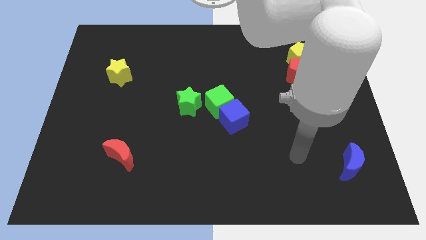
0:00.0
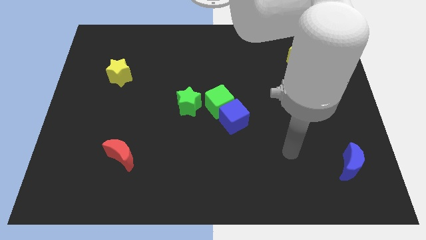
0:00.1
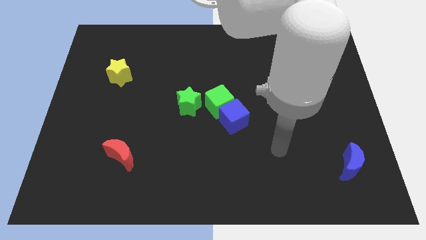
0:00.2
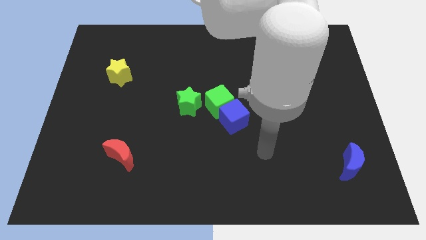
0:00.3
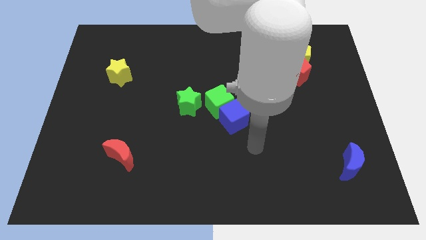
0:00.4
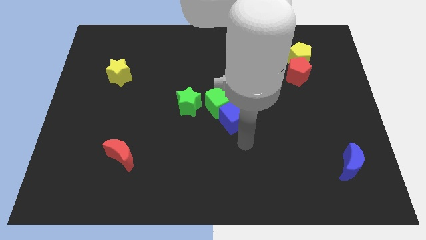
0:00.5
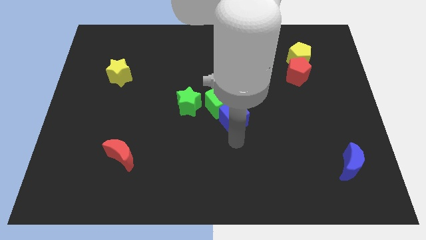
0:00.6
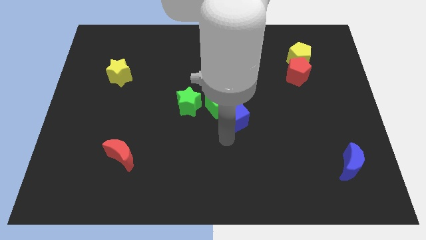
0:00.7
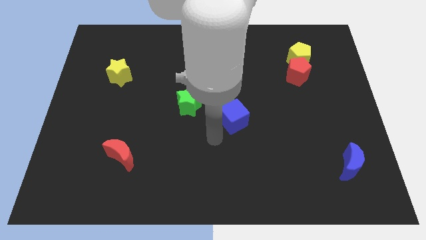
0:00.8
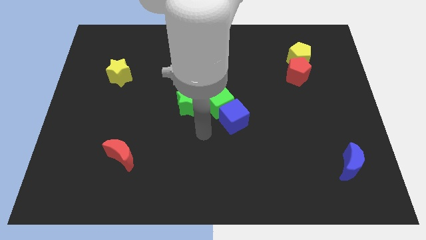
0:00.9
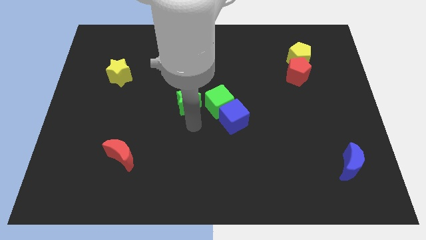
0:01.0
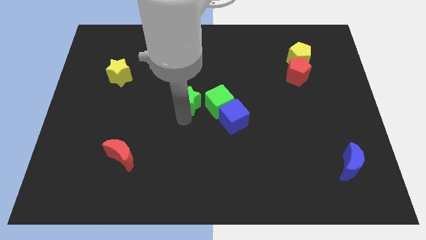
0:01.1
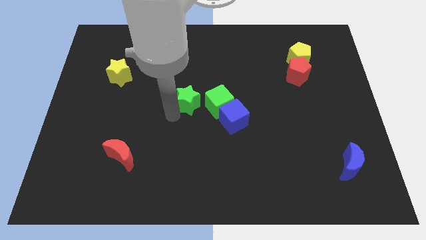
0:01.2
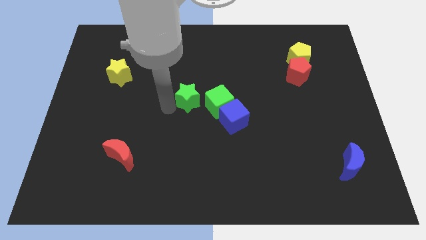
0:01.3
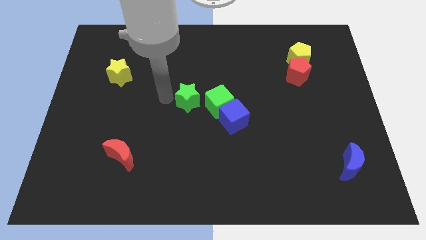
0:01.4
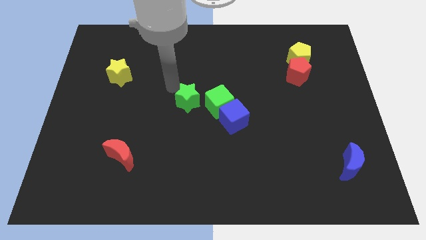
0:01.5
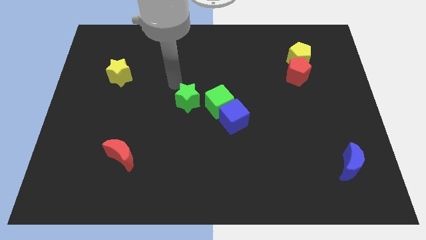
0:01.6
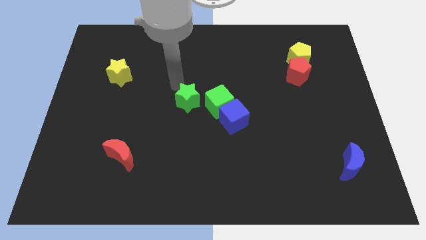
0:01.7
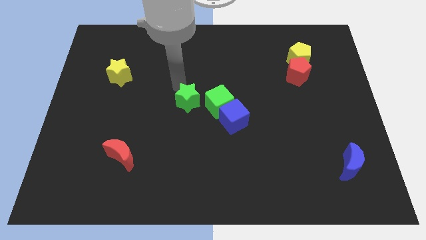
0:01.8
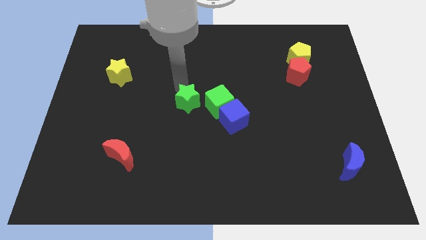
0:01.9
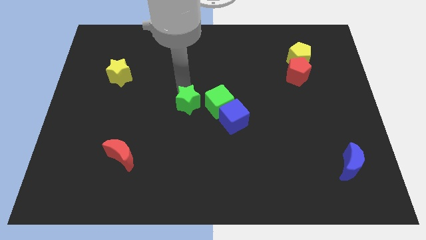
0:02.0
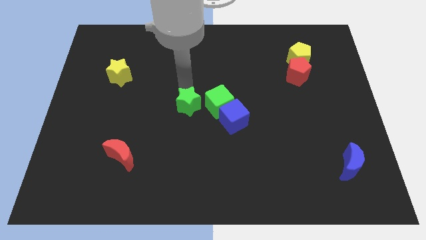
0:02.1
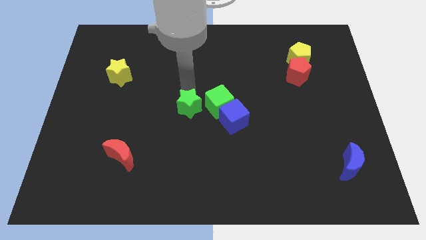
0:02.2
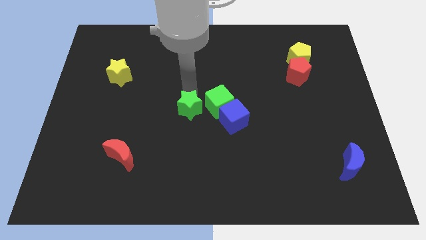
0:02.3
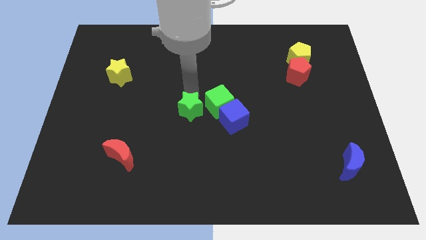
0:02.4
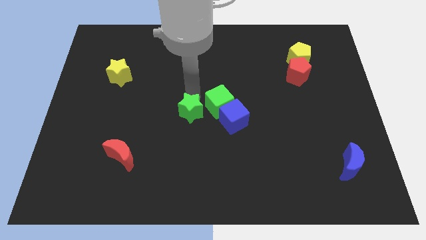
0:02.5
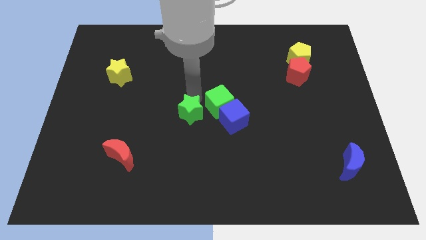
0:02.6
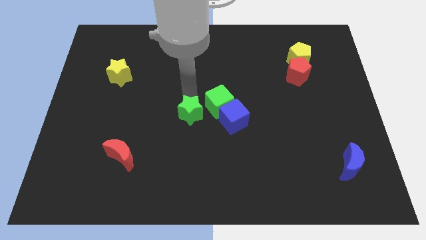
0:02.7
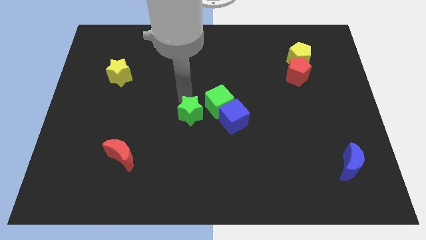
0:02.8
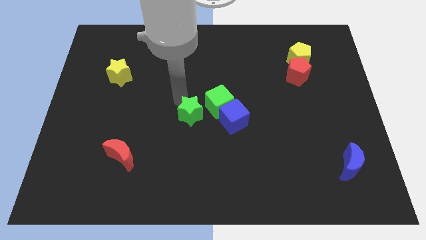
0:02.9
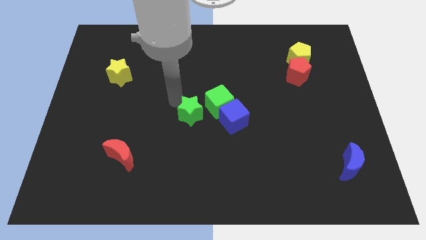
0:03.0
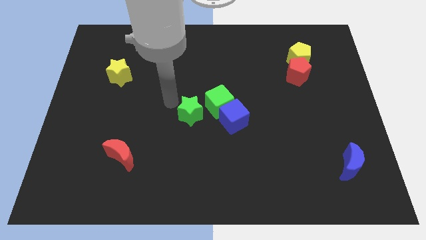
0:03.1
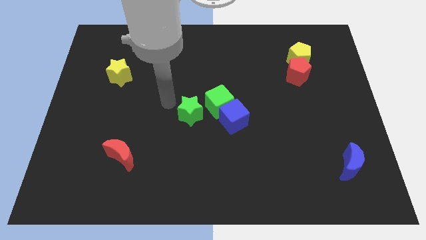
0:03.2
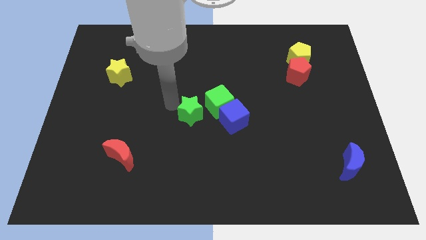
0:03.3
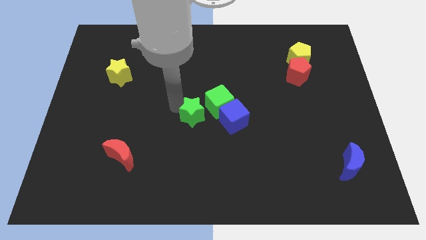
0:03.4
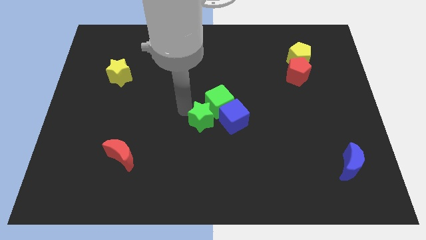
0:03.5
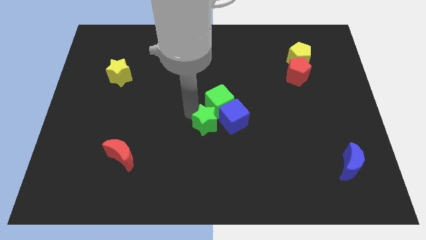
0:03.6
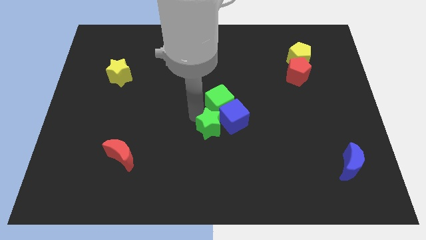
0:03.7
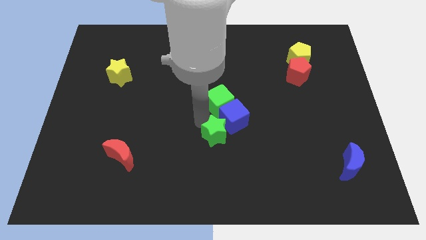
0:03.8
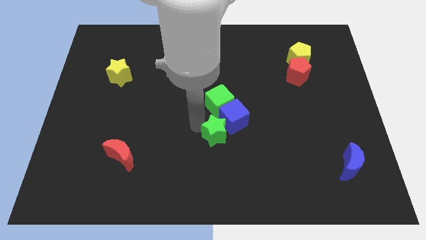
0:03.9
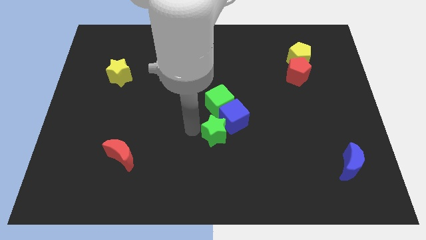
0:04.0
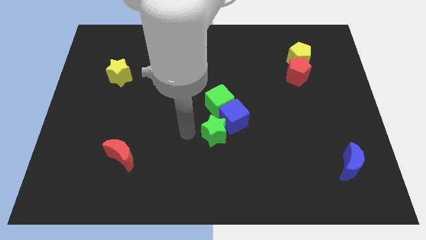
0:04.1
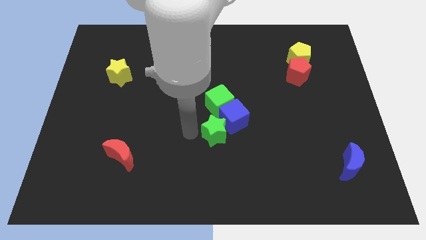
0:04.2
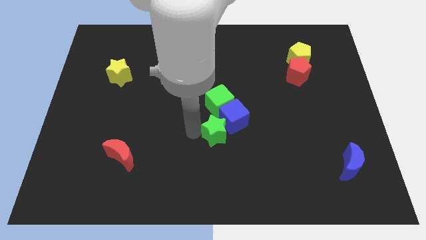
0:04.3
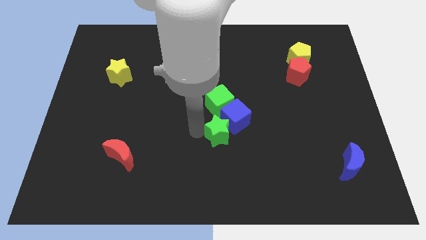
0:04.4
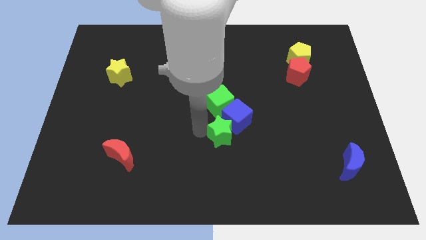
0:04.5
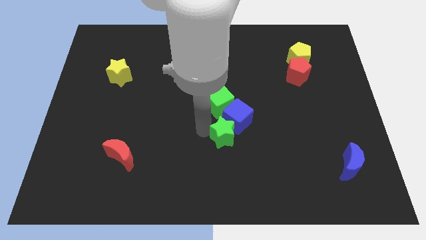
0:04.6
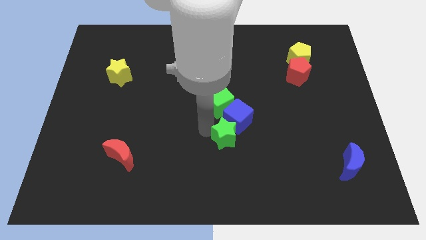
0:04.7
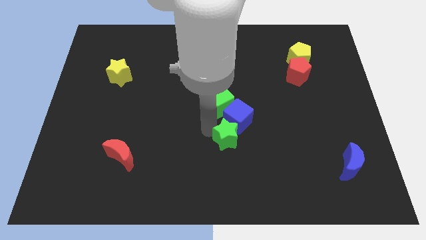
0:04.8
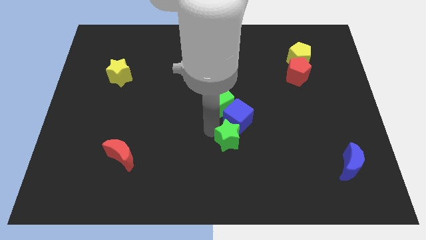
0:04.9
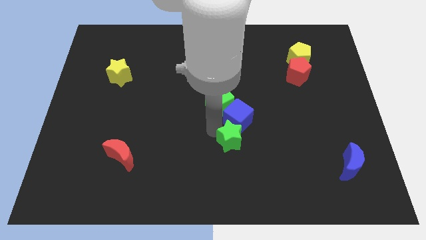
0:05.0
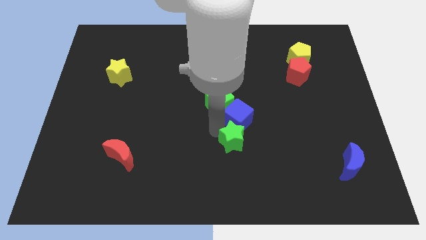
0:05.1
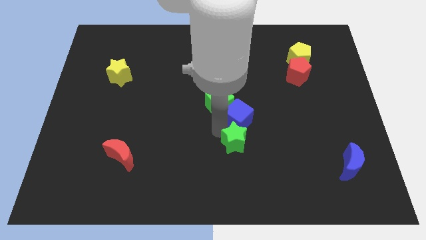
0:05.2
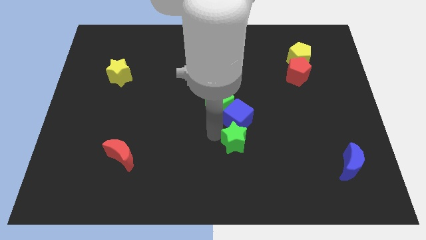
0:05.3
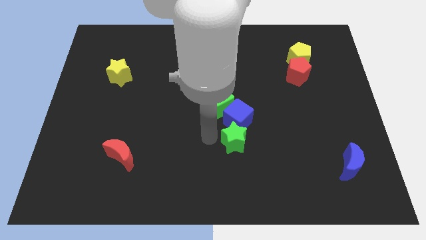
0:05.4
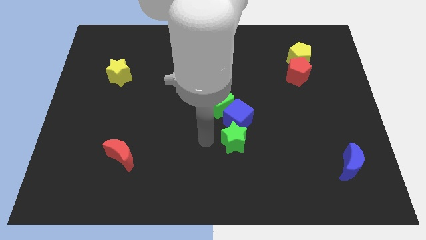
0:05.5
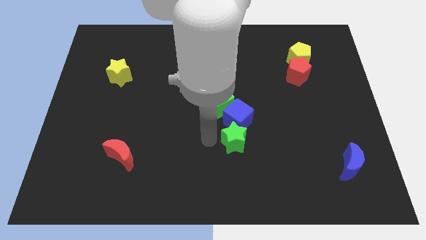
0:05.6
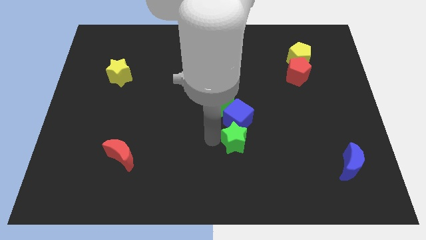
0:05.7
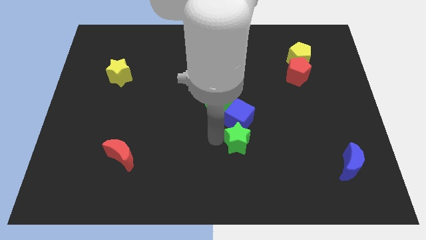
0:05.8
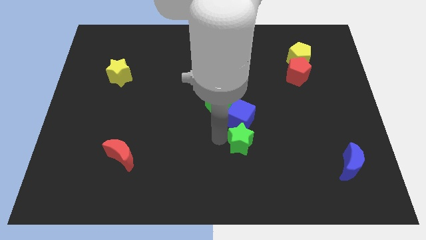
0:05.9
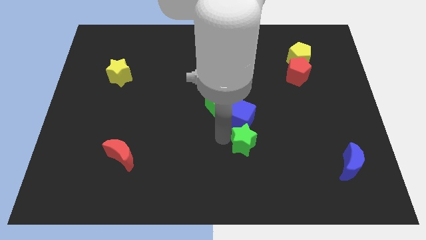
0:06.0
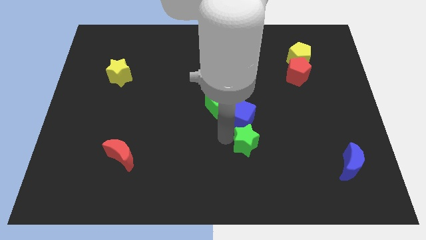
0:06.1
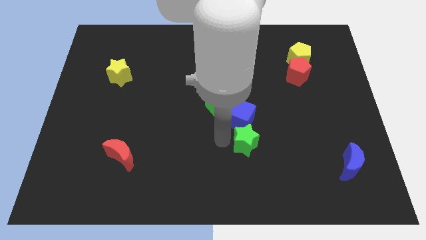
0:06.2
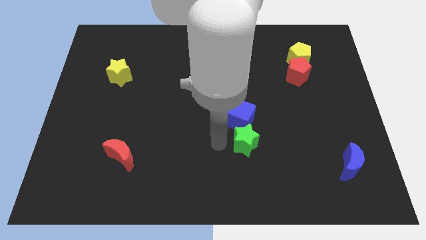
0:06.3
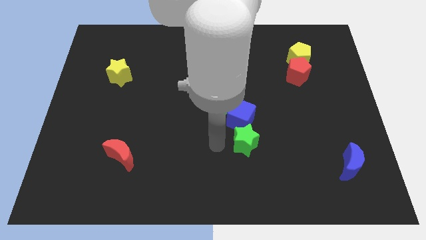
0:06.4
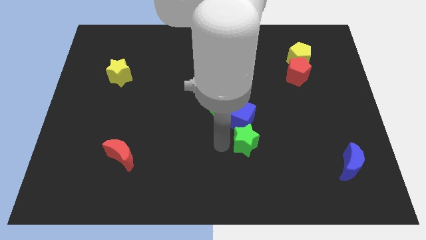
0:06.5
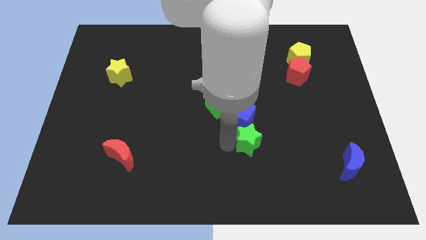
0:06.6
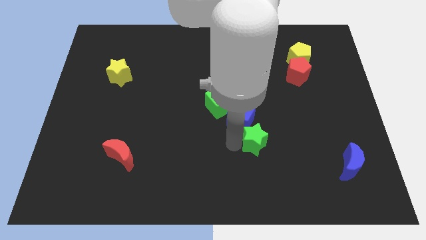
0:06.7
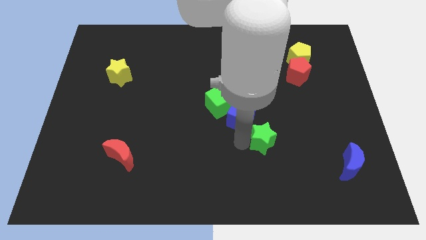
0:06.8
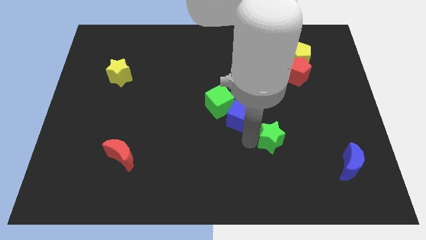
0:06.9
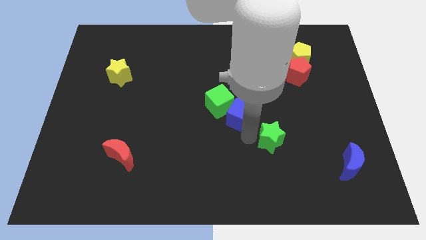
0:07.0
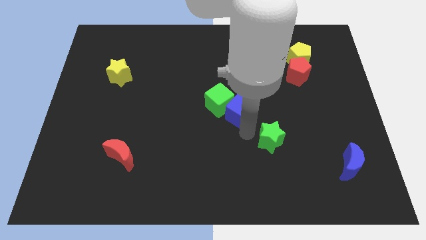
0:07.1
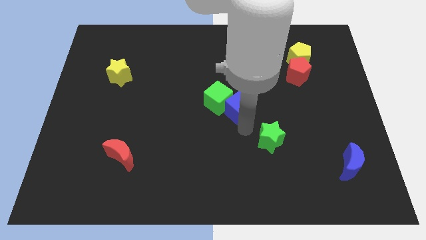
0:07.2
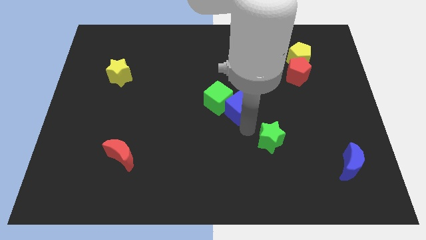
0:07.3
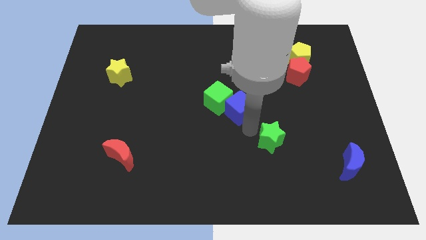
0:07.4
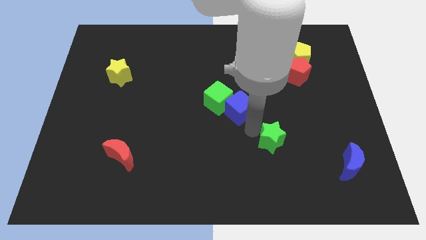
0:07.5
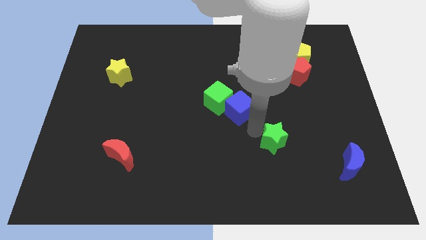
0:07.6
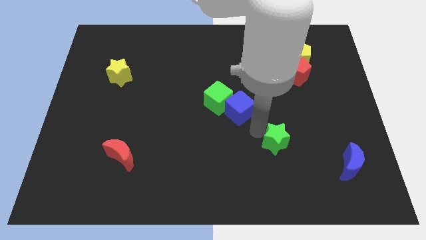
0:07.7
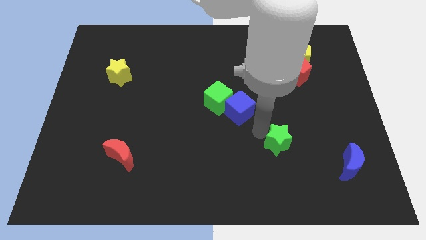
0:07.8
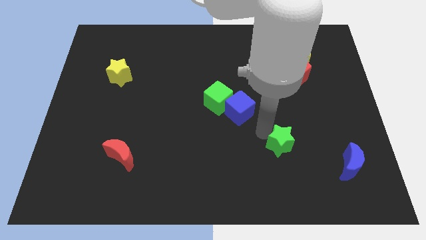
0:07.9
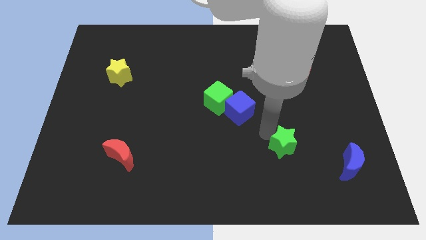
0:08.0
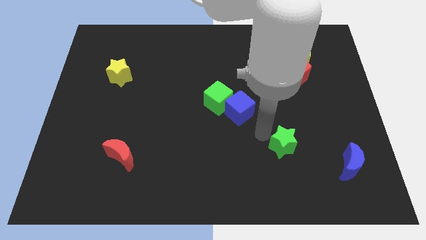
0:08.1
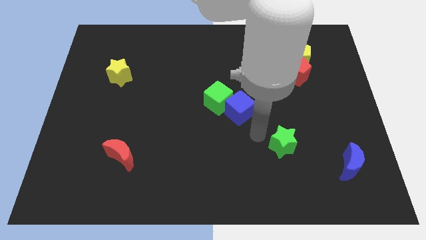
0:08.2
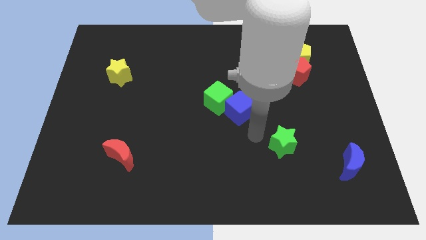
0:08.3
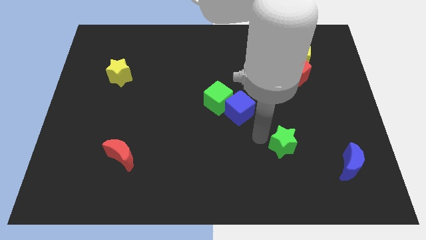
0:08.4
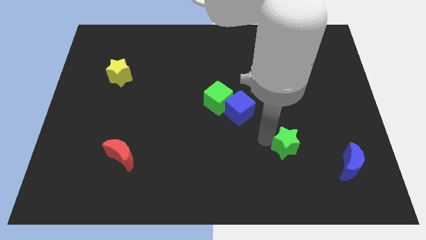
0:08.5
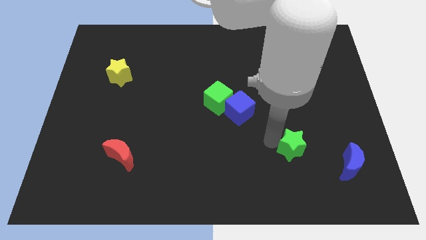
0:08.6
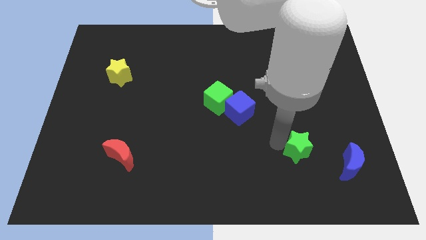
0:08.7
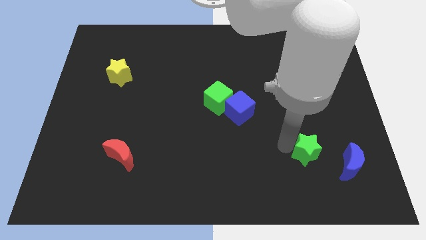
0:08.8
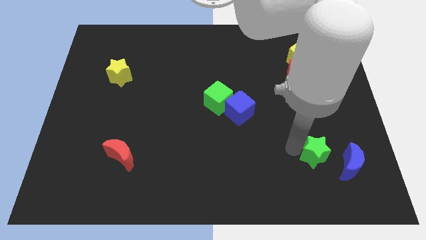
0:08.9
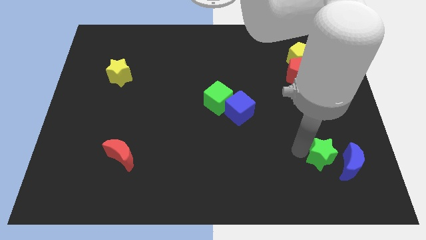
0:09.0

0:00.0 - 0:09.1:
move the green star next to the blue moon
